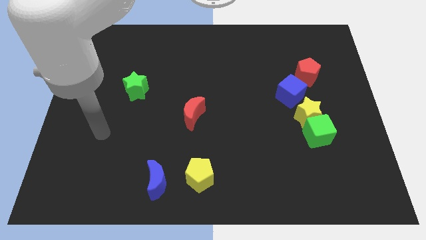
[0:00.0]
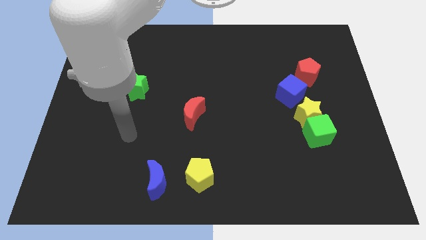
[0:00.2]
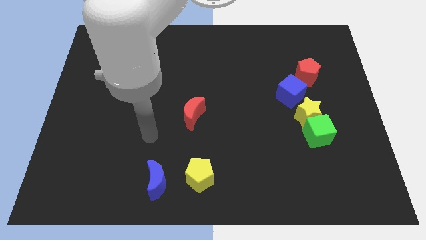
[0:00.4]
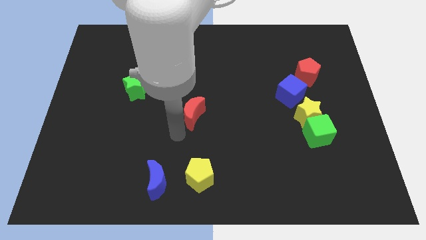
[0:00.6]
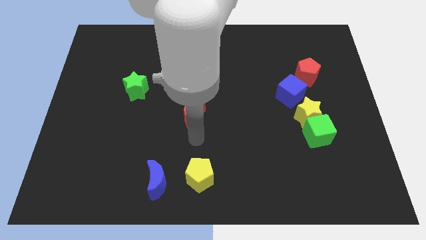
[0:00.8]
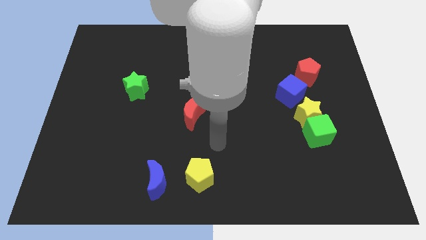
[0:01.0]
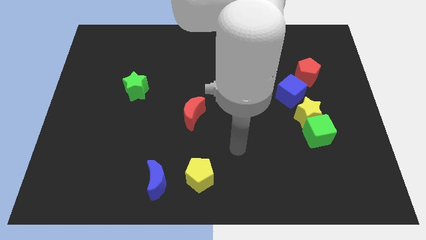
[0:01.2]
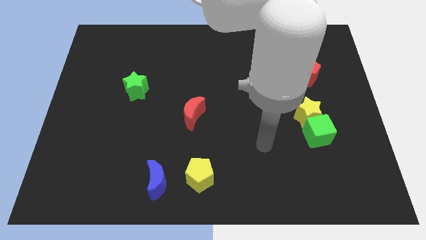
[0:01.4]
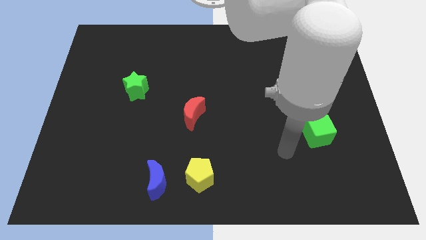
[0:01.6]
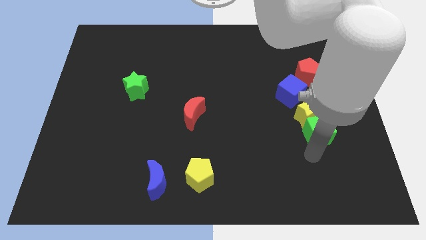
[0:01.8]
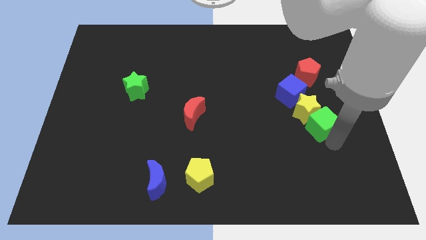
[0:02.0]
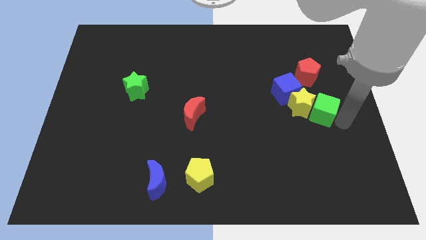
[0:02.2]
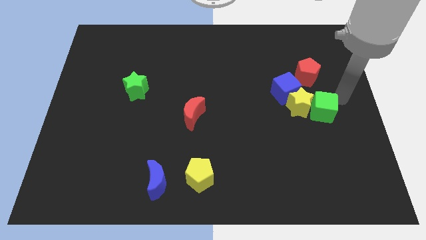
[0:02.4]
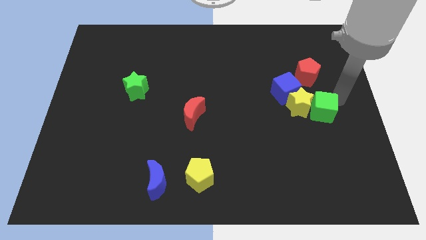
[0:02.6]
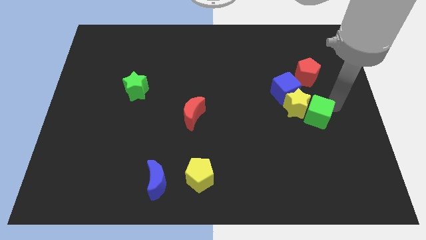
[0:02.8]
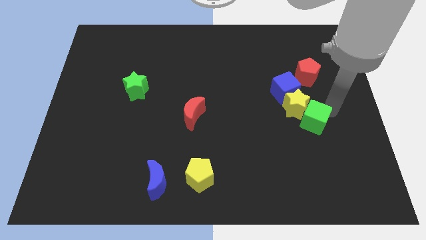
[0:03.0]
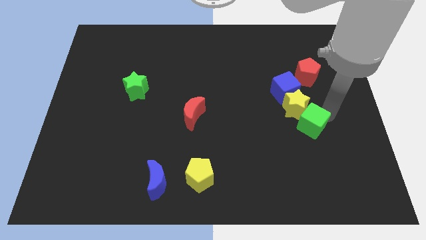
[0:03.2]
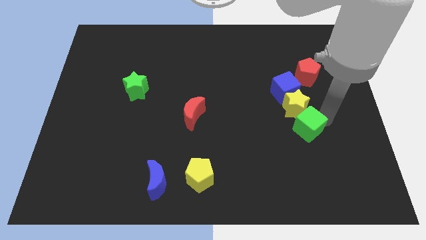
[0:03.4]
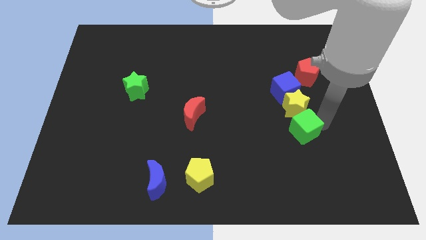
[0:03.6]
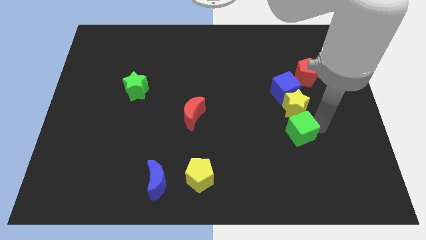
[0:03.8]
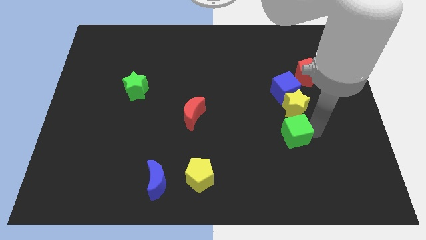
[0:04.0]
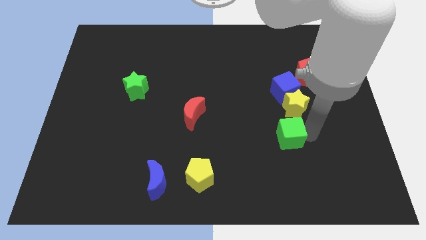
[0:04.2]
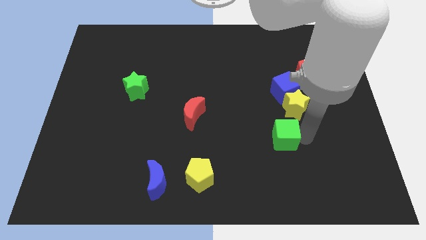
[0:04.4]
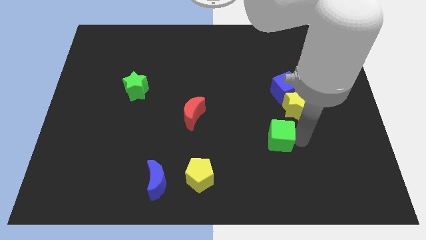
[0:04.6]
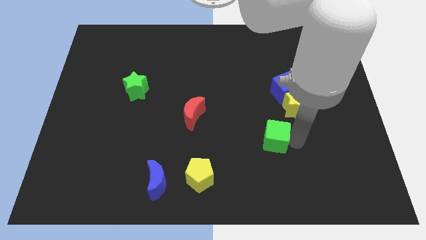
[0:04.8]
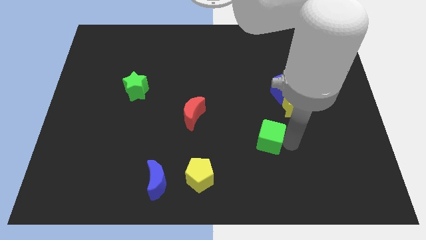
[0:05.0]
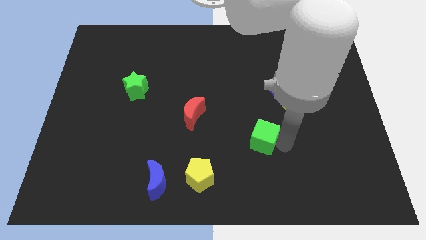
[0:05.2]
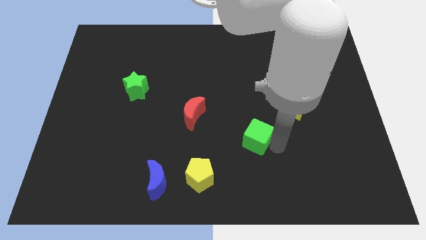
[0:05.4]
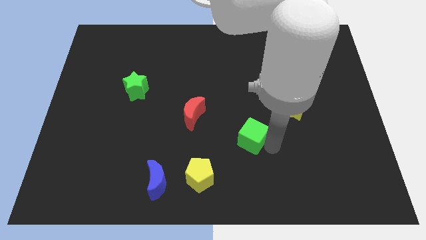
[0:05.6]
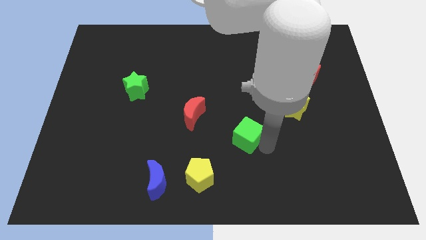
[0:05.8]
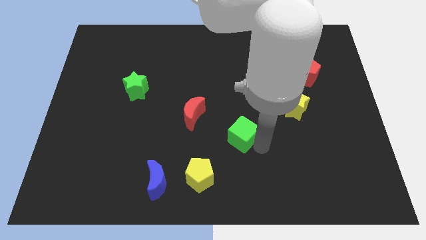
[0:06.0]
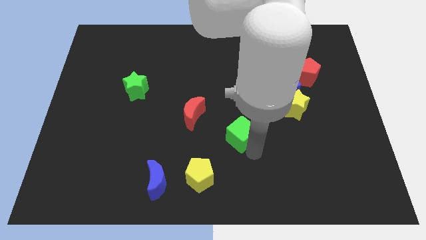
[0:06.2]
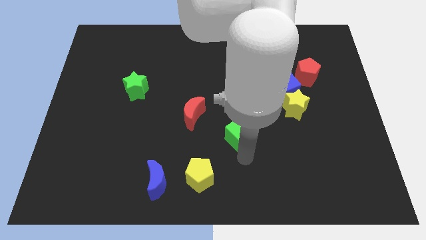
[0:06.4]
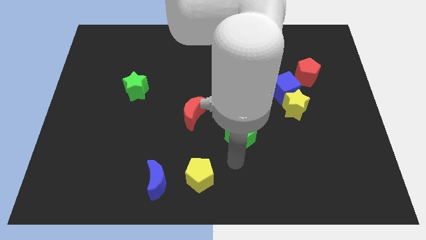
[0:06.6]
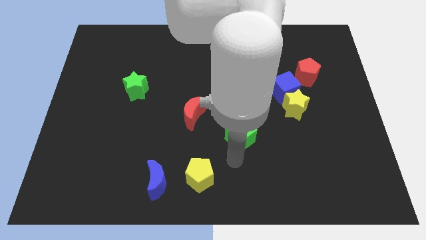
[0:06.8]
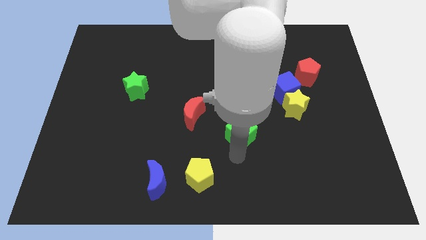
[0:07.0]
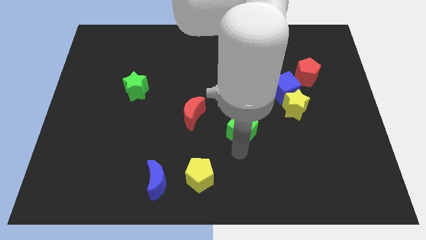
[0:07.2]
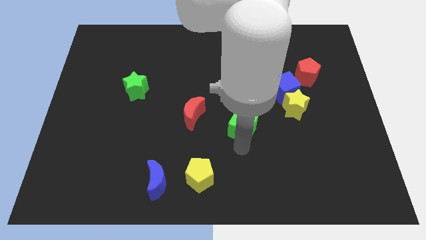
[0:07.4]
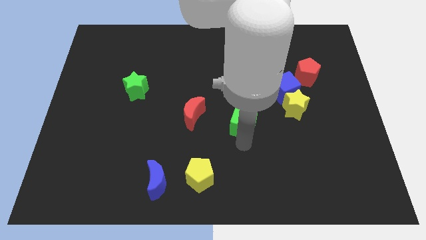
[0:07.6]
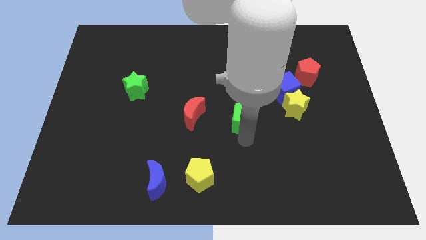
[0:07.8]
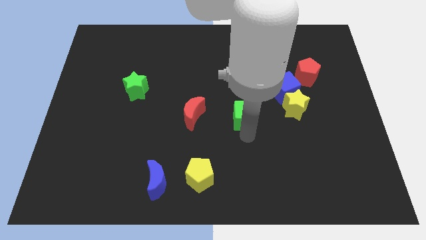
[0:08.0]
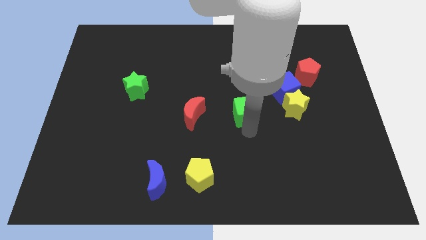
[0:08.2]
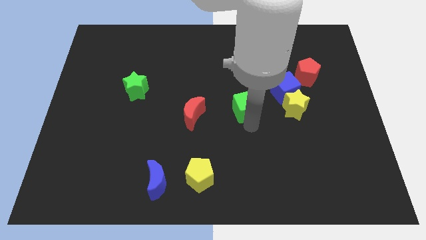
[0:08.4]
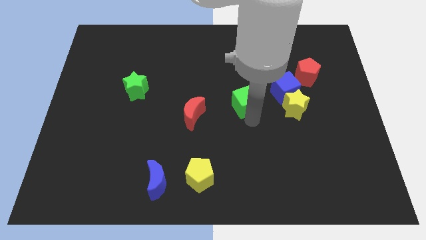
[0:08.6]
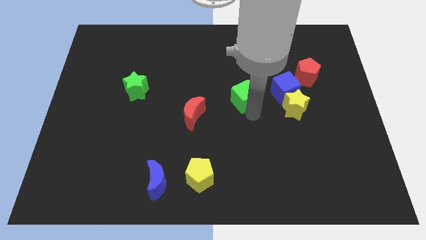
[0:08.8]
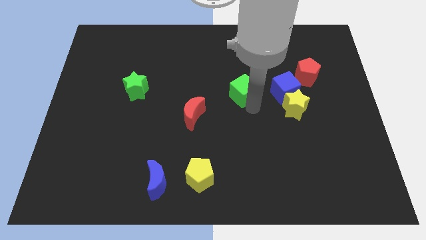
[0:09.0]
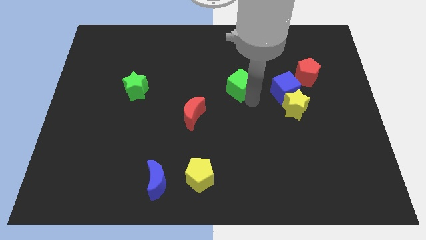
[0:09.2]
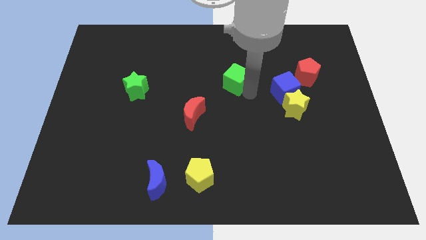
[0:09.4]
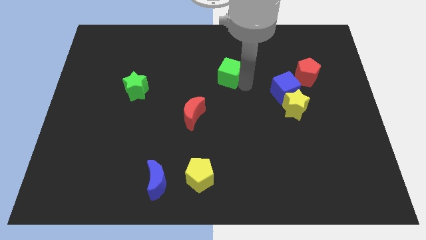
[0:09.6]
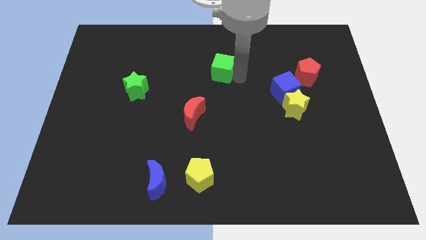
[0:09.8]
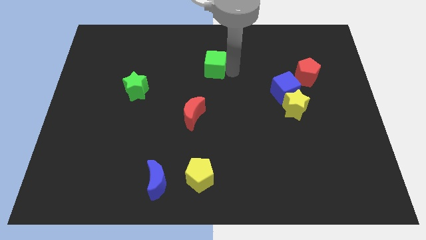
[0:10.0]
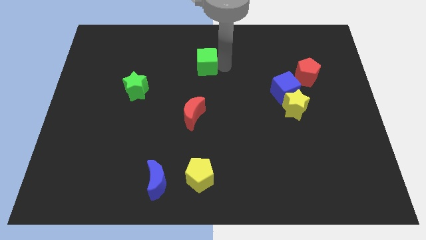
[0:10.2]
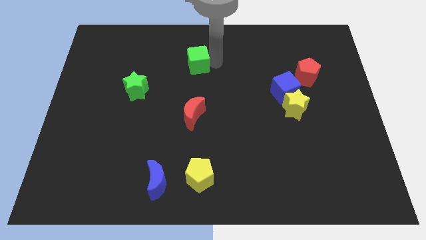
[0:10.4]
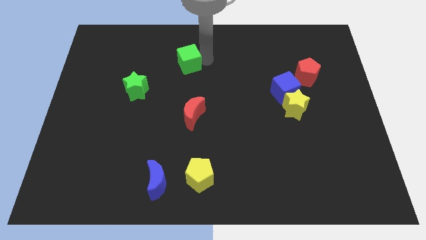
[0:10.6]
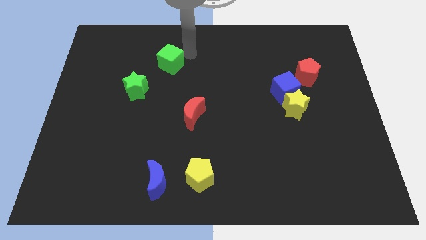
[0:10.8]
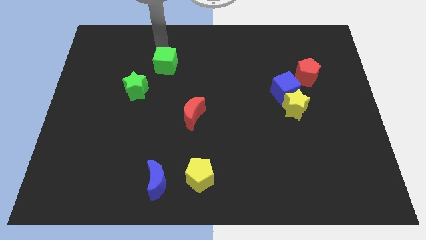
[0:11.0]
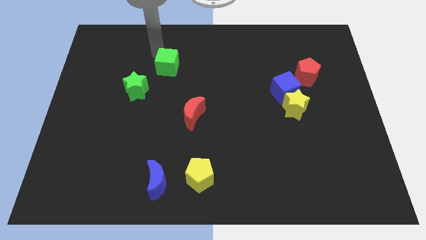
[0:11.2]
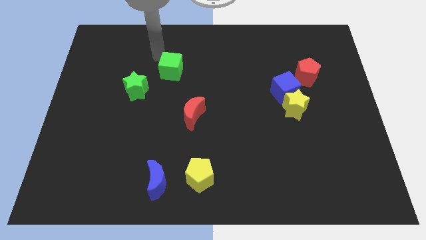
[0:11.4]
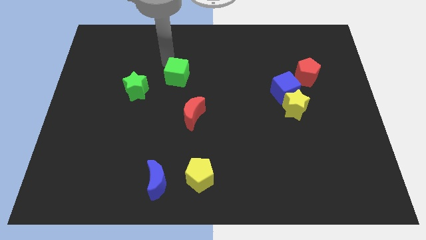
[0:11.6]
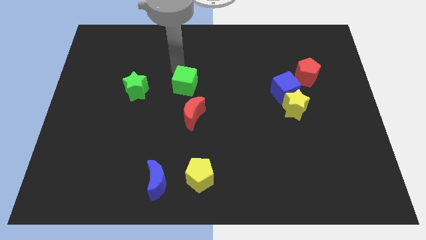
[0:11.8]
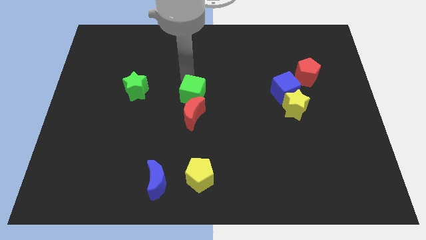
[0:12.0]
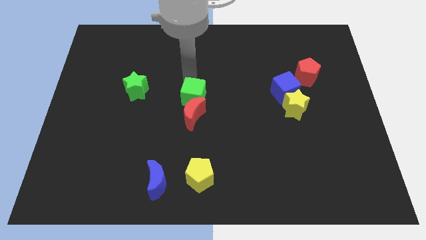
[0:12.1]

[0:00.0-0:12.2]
push the green cube next to the red moon
